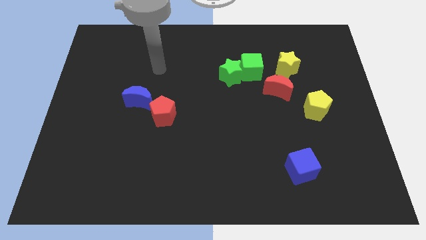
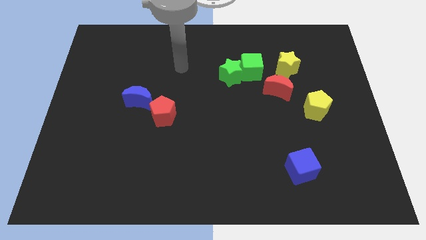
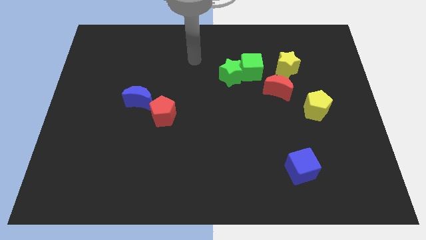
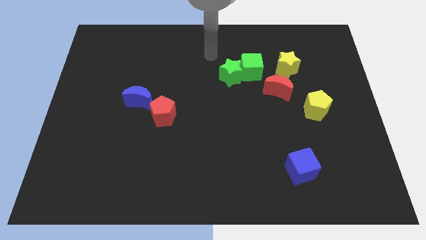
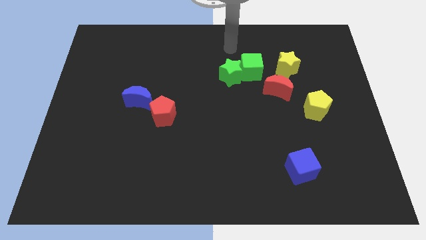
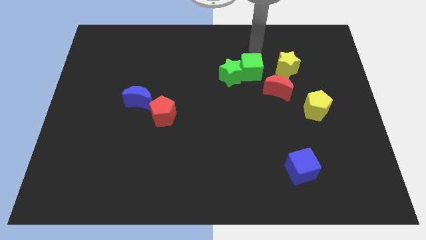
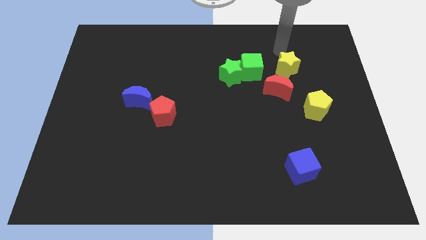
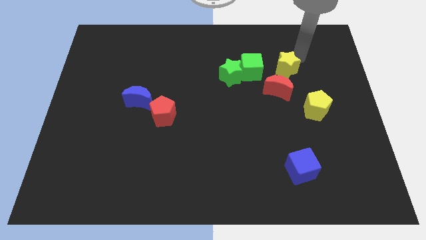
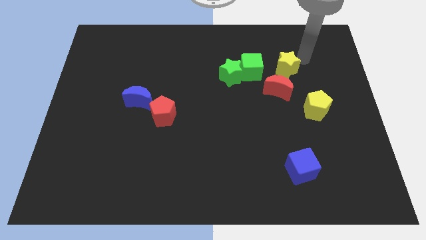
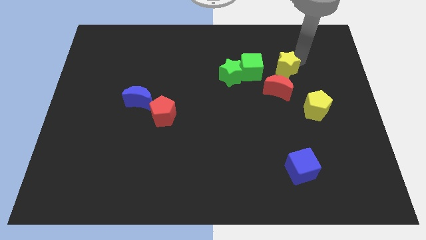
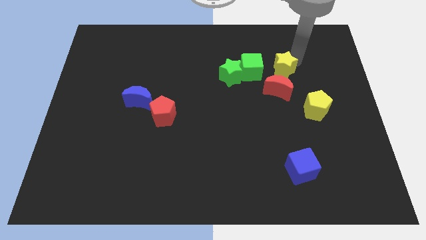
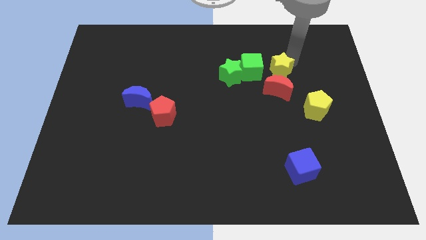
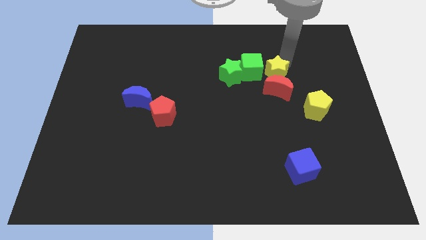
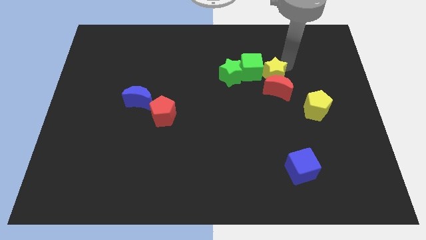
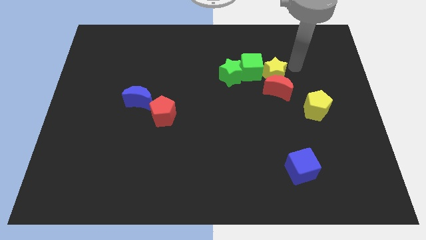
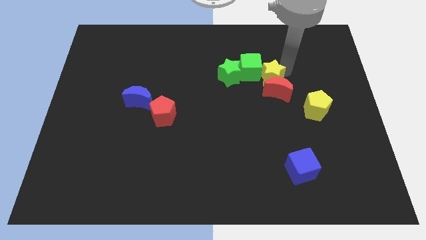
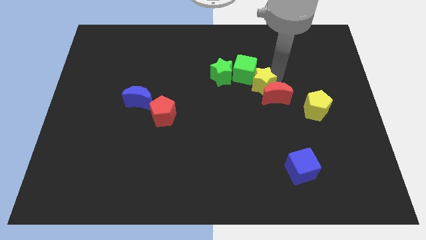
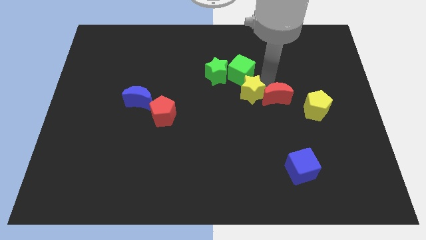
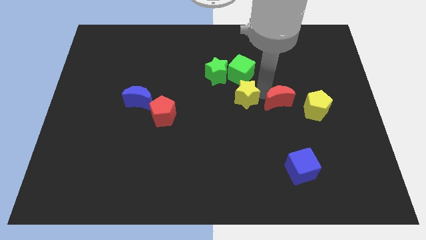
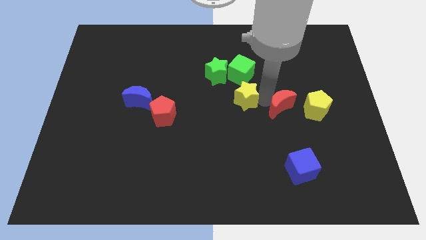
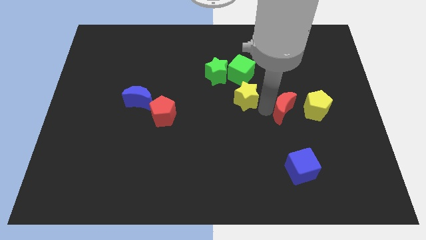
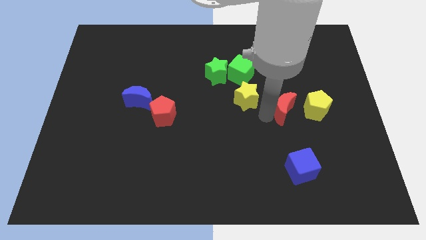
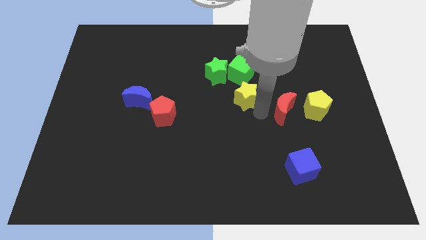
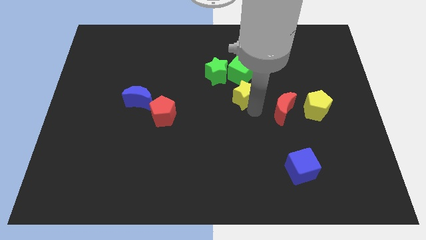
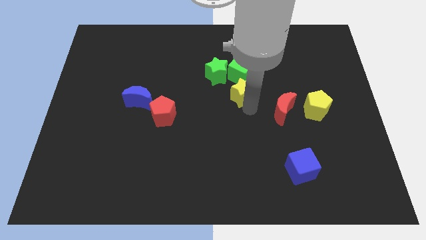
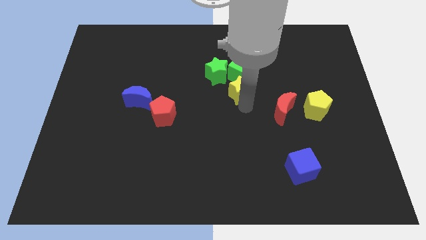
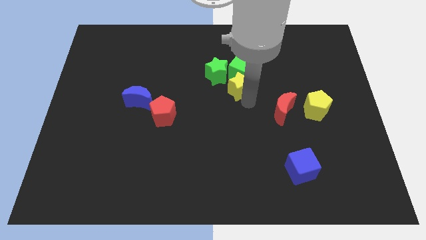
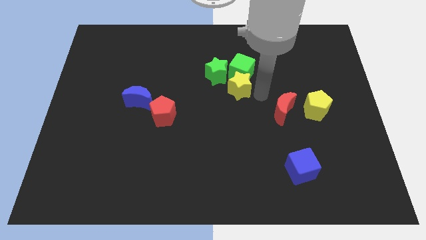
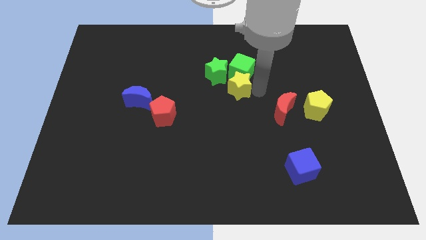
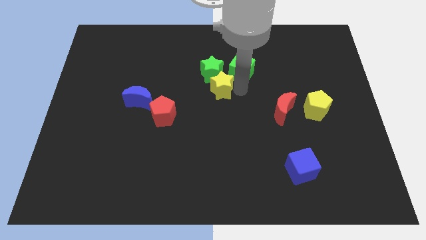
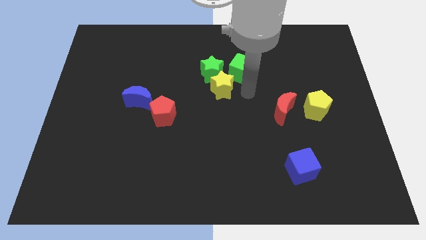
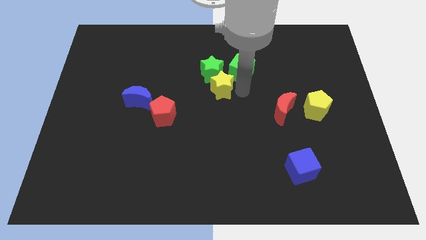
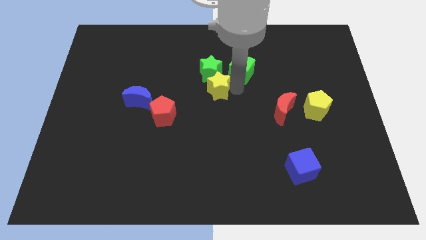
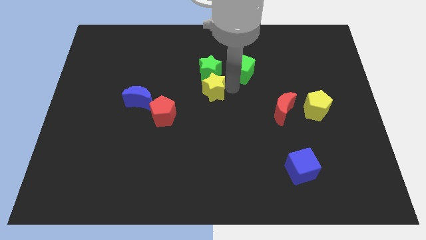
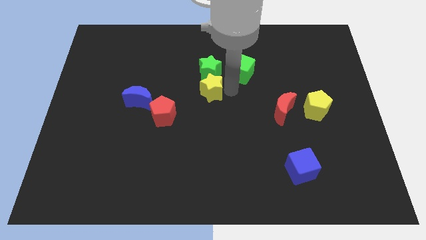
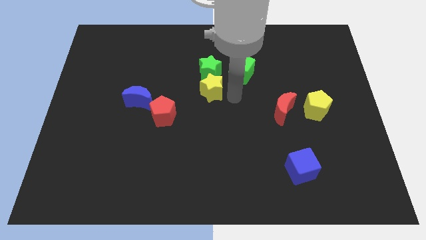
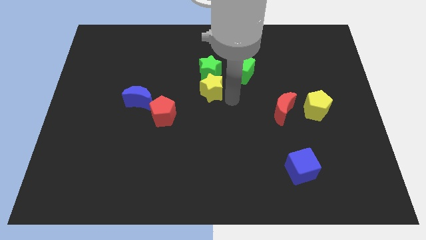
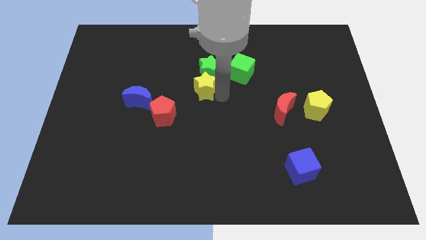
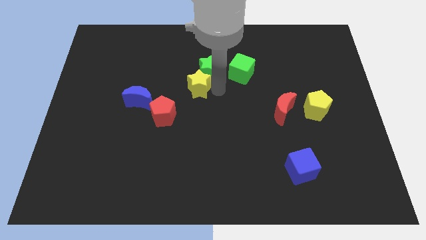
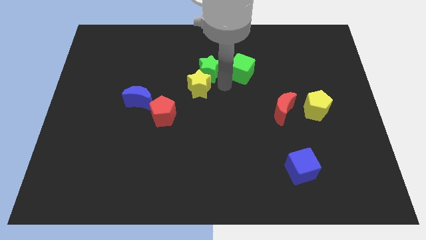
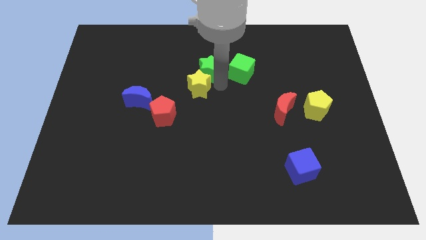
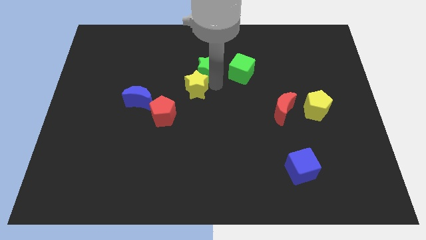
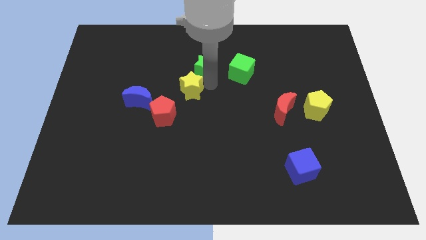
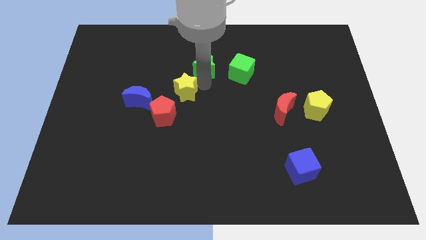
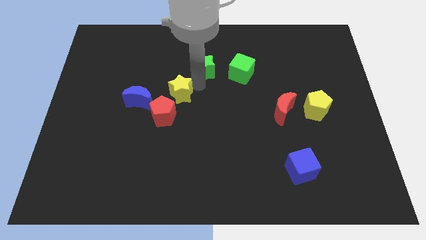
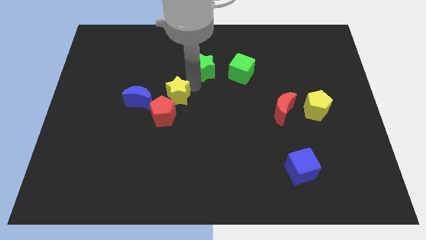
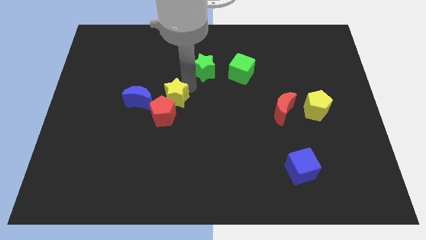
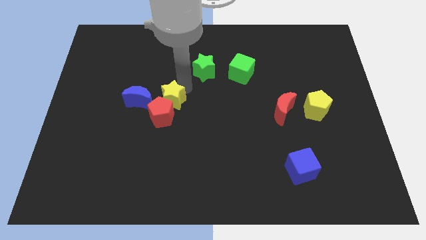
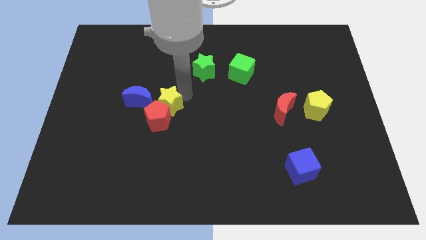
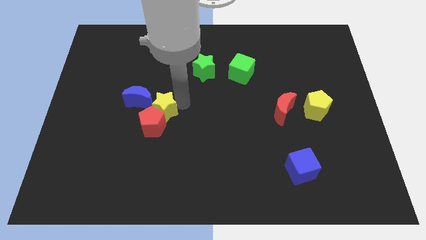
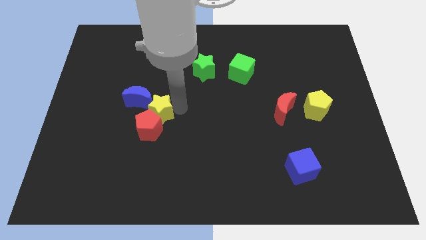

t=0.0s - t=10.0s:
put the yellow star towards the blue moon

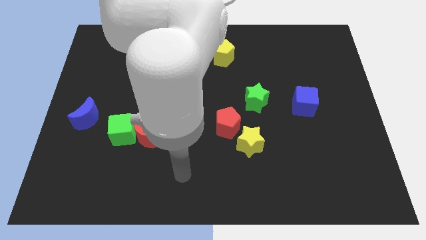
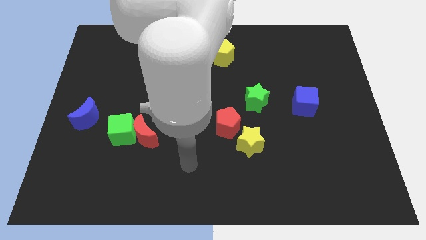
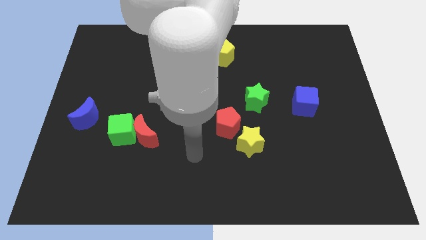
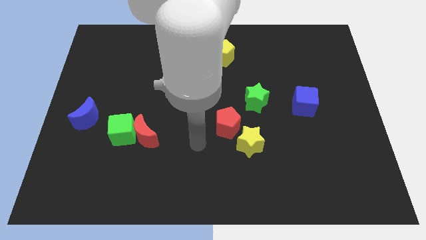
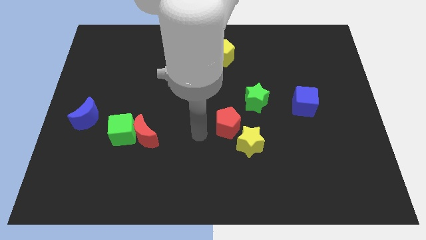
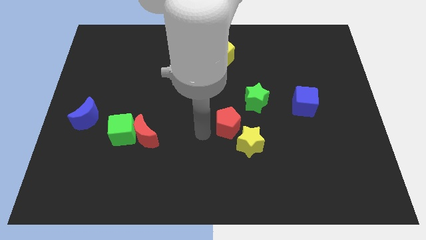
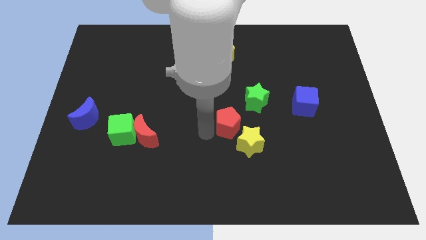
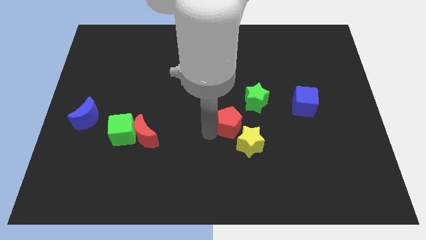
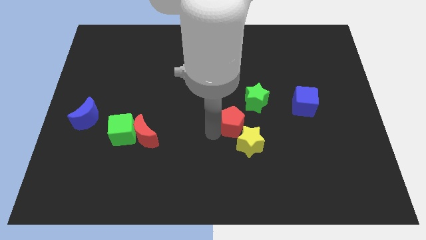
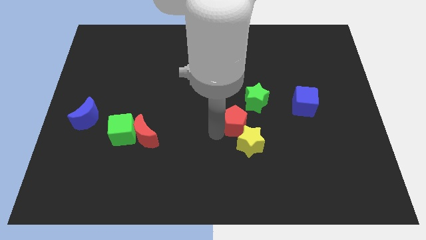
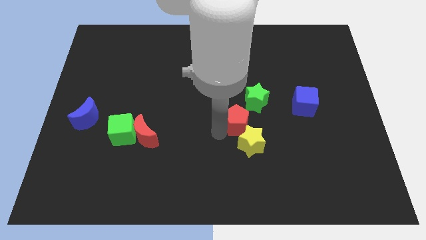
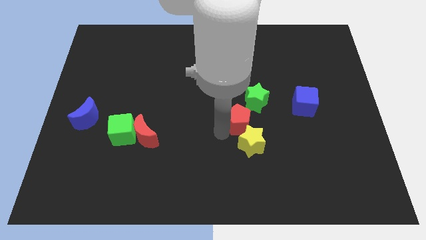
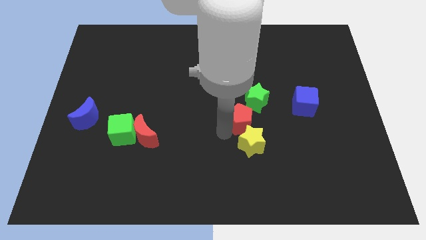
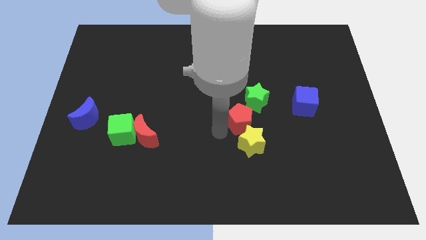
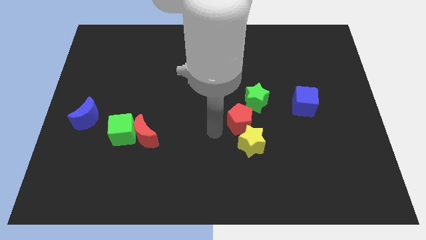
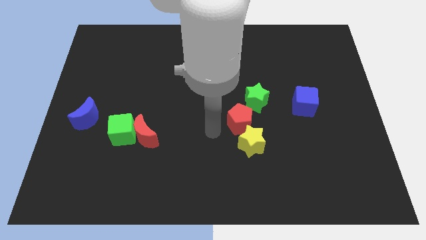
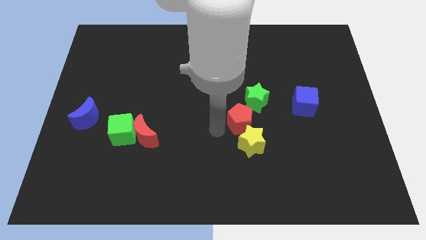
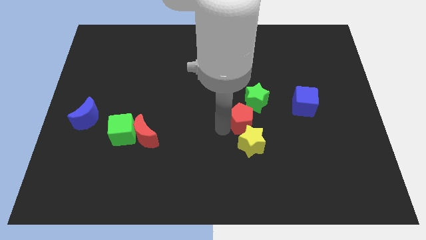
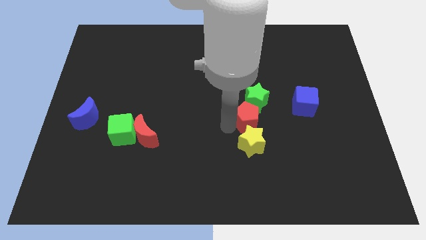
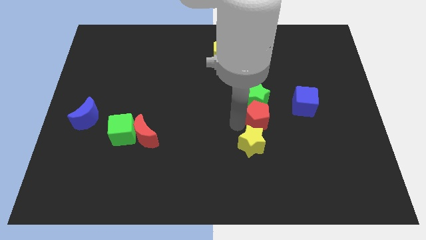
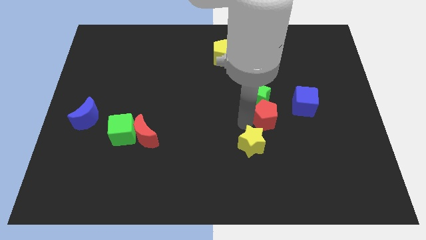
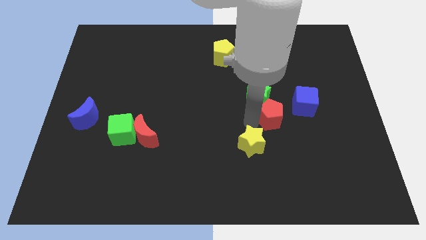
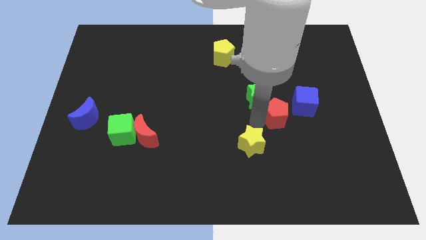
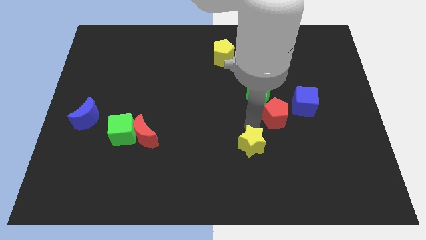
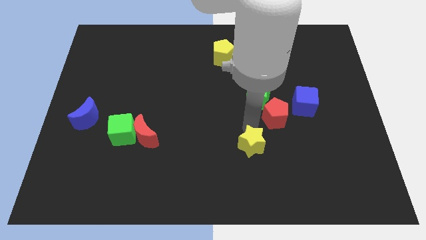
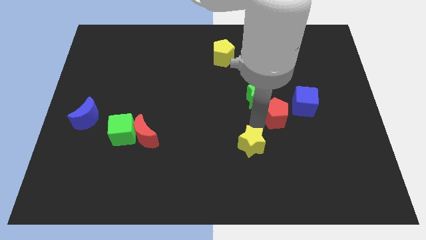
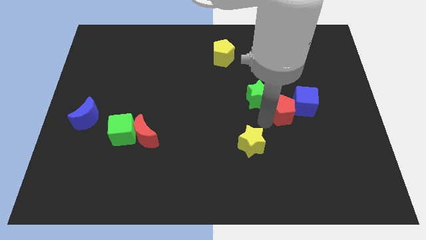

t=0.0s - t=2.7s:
move the red pentagon towards the blue cube
